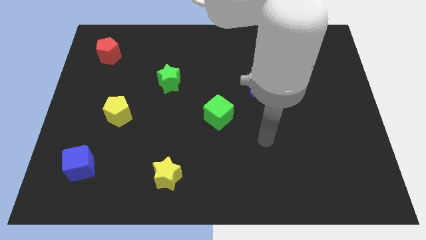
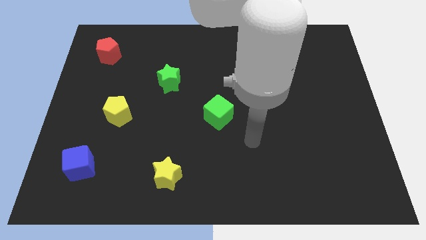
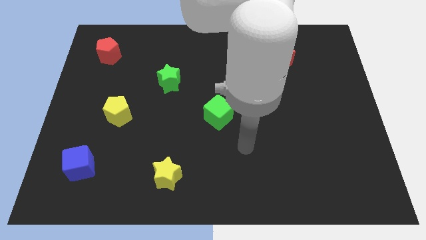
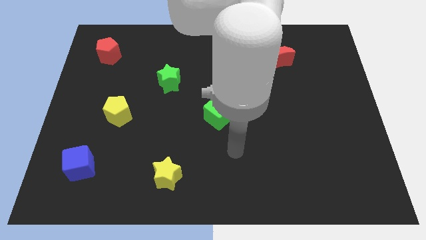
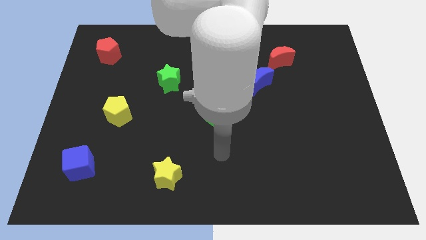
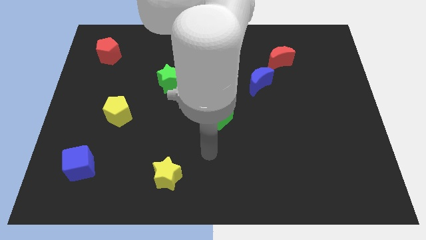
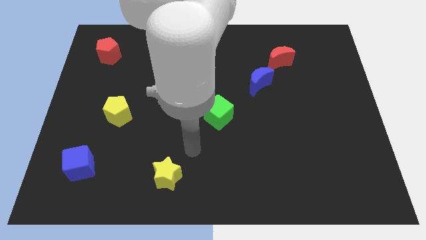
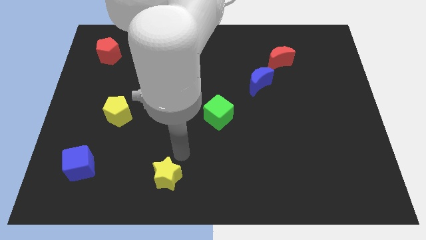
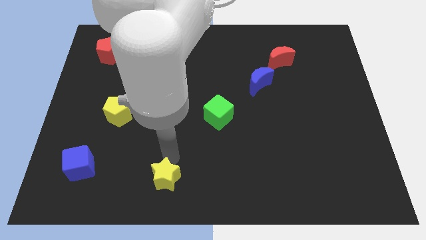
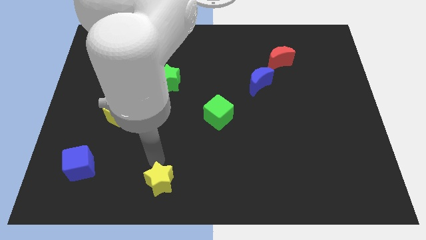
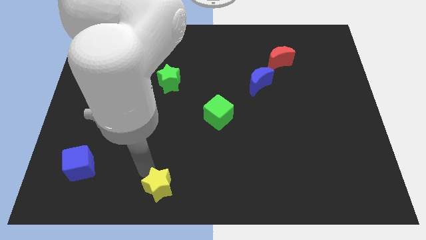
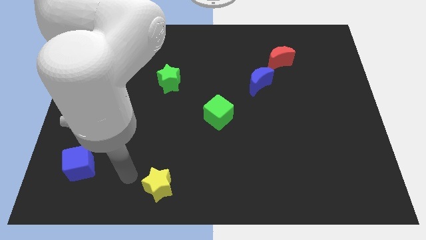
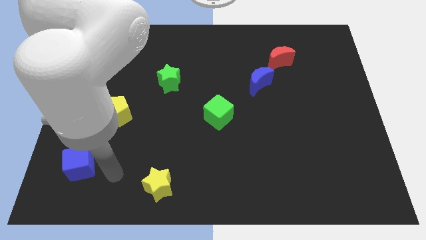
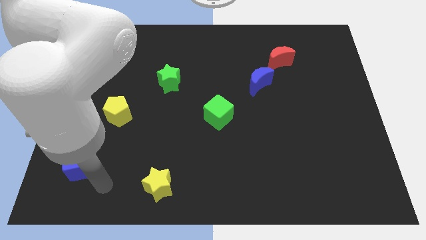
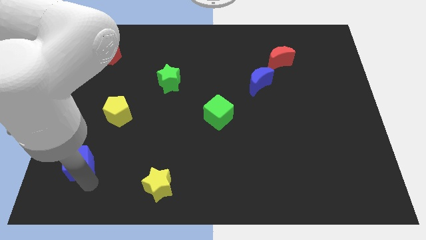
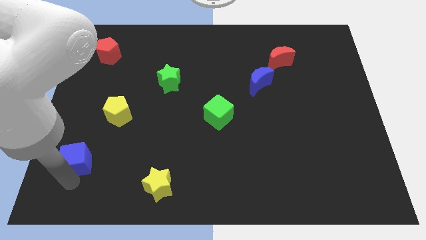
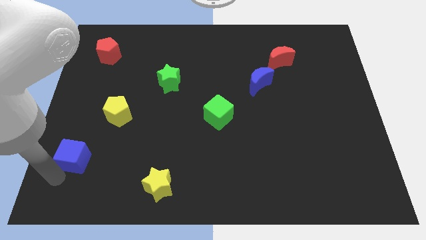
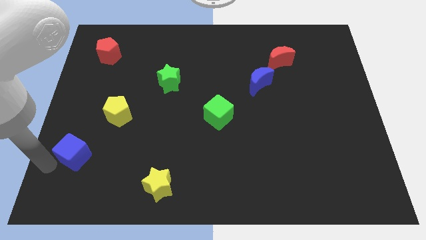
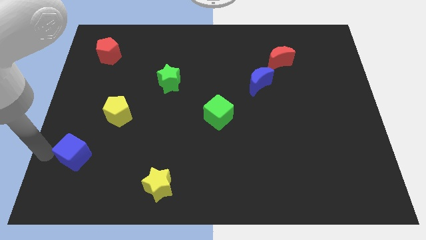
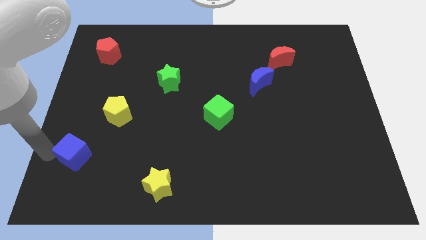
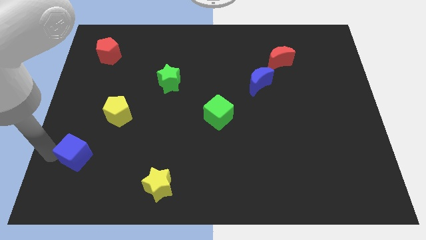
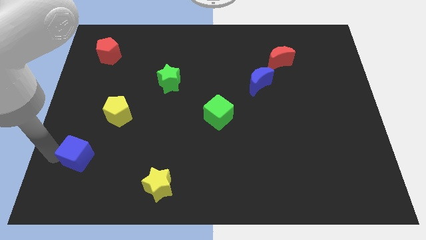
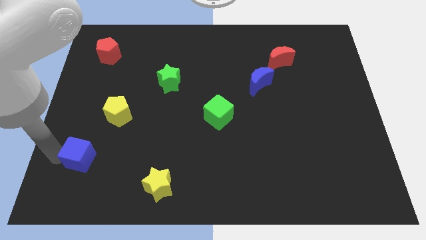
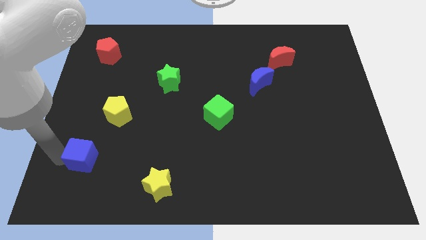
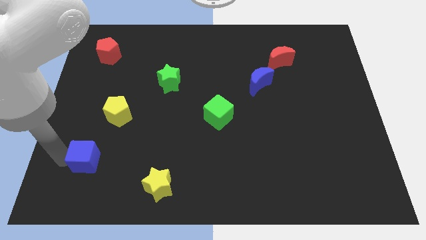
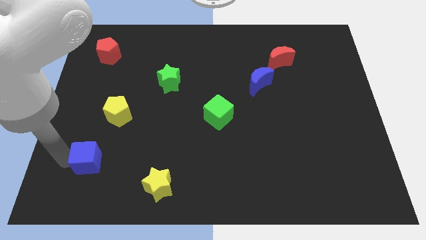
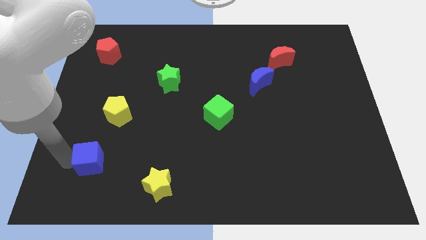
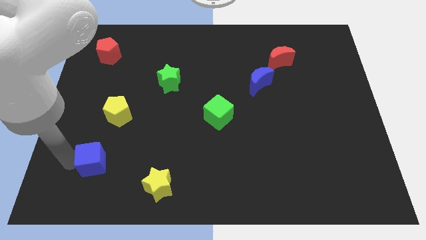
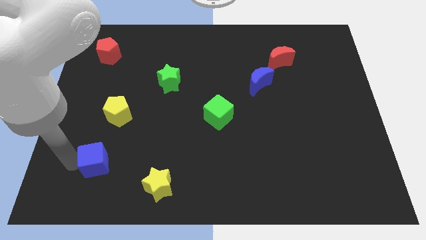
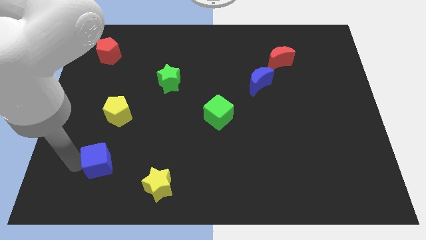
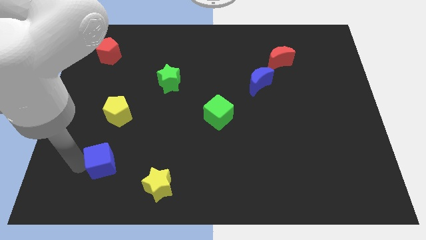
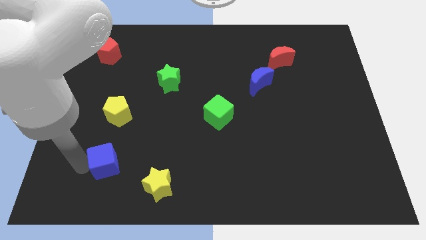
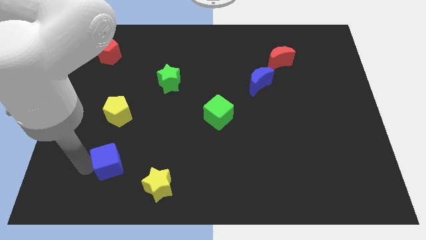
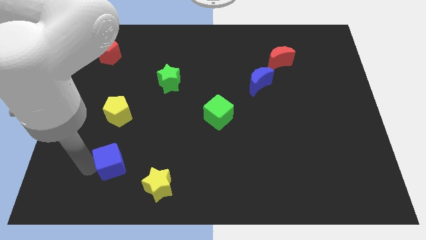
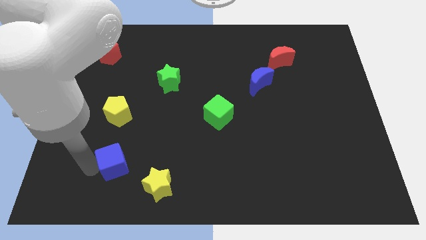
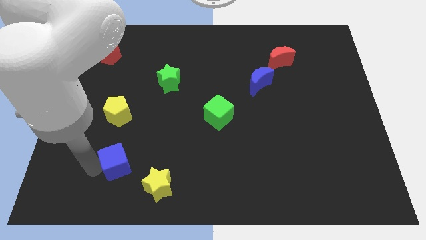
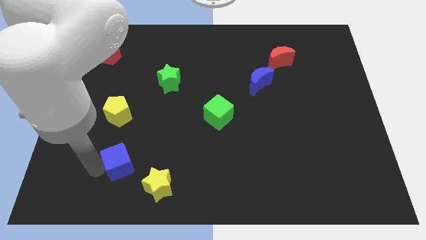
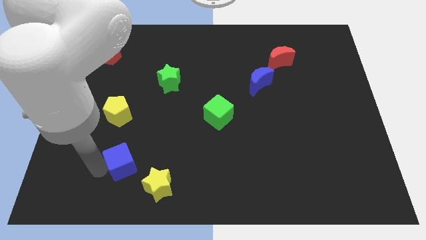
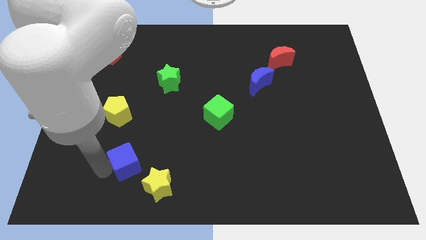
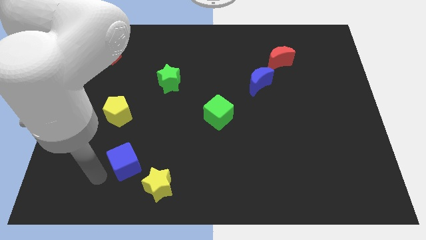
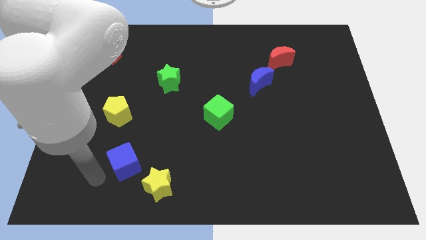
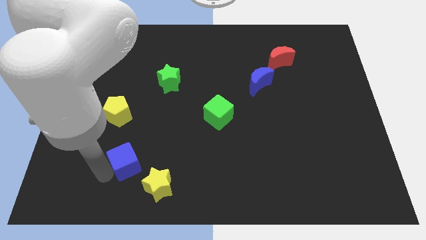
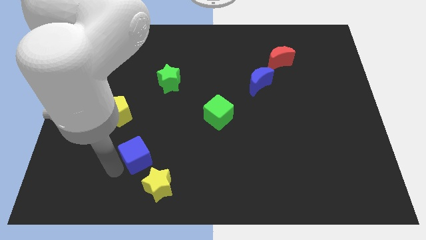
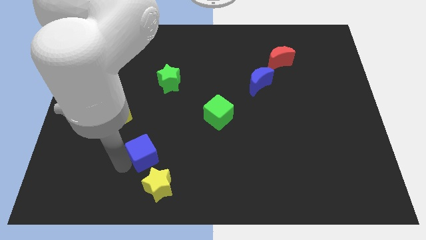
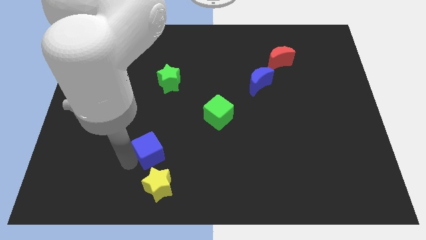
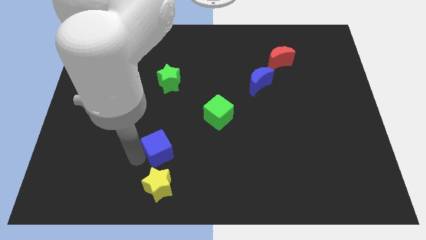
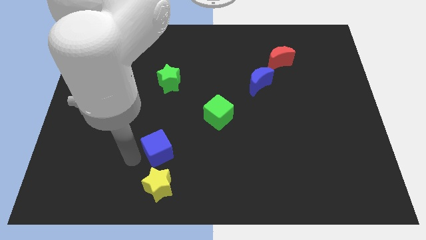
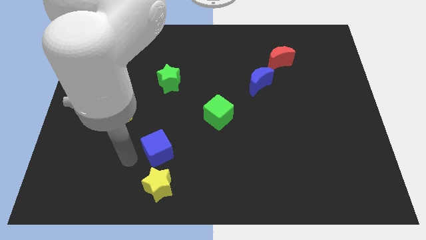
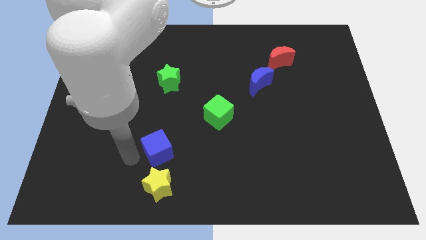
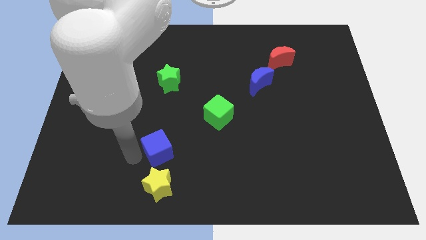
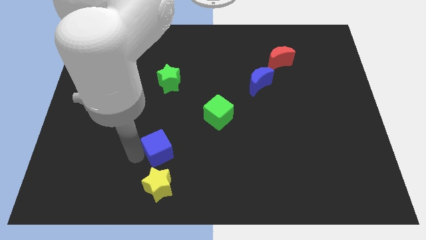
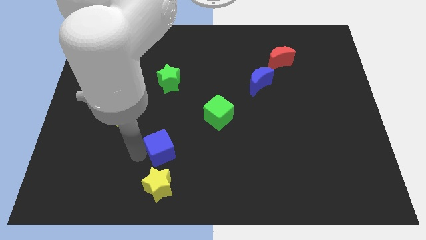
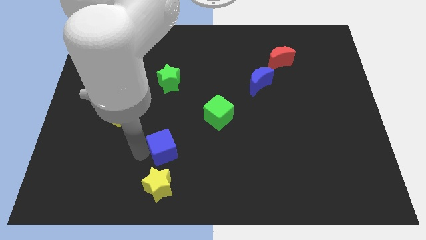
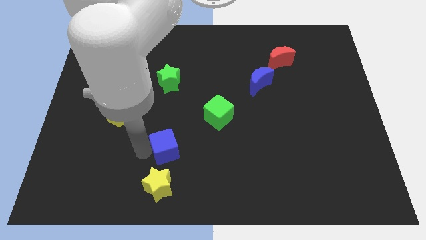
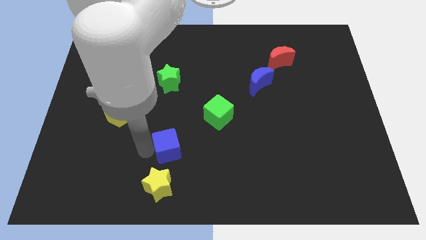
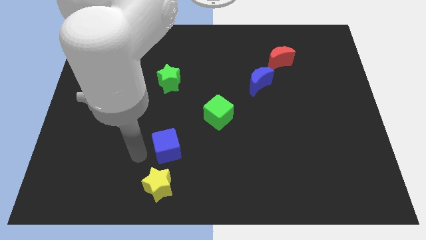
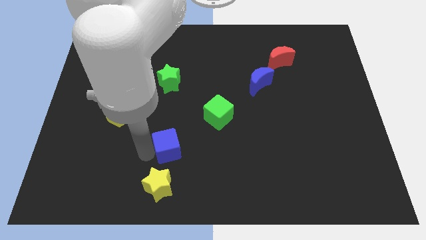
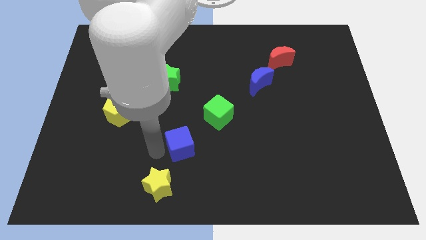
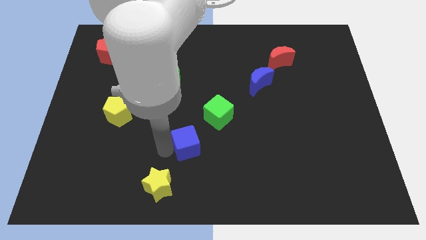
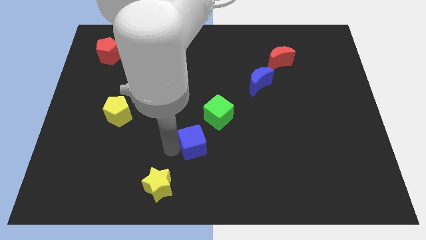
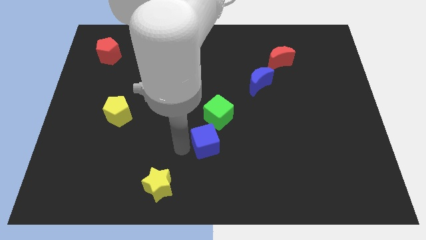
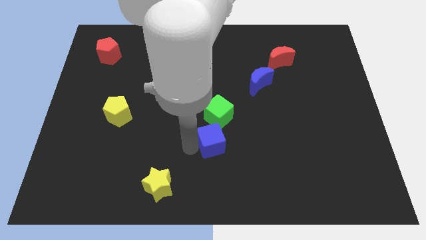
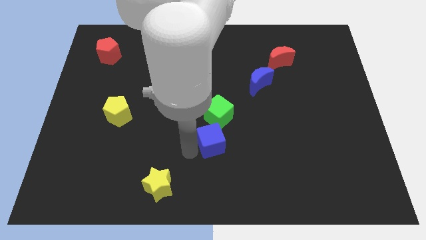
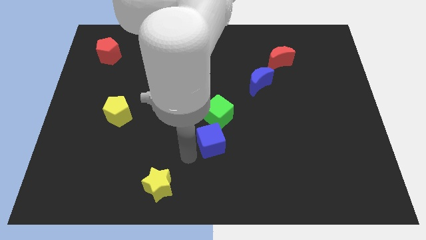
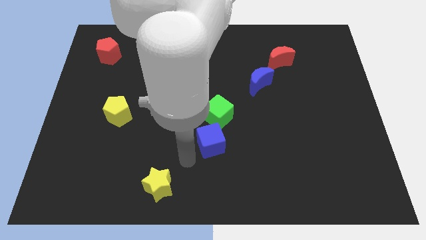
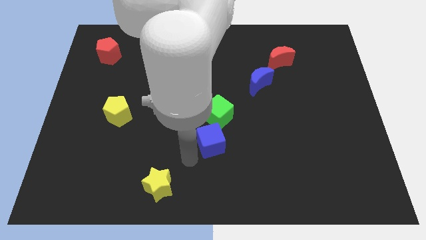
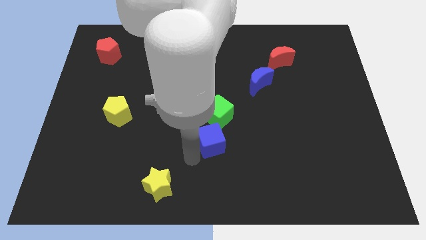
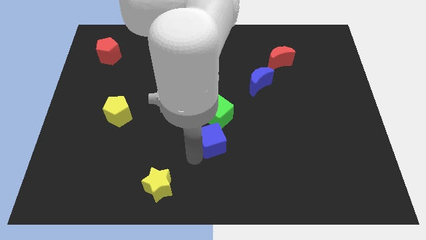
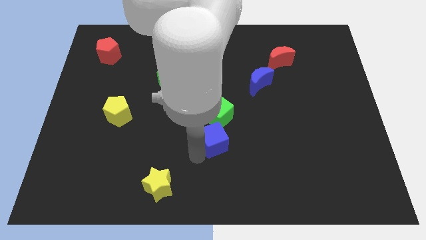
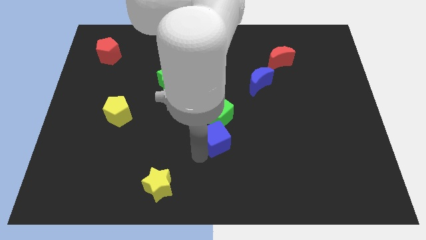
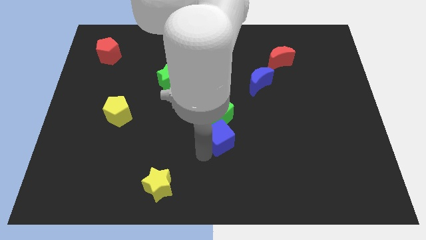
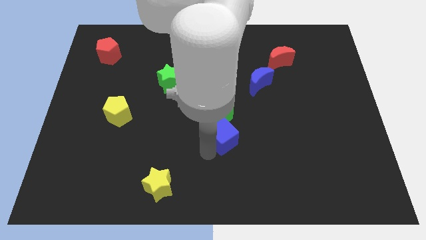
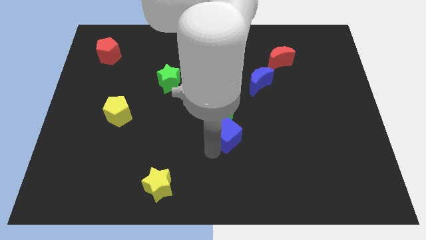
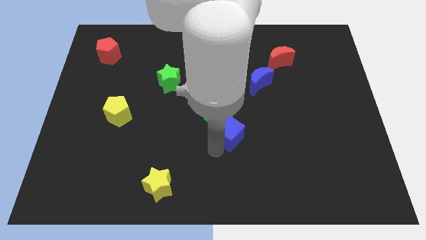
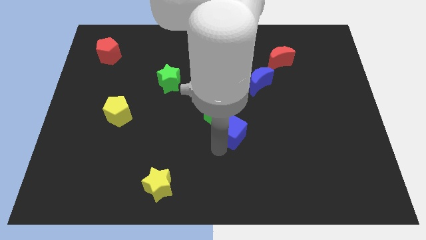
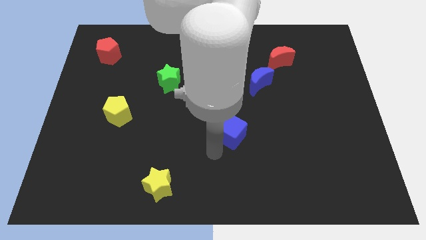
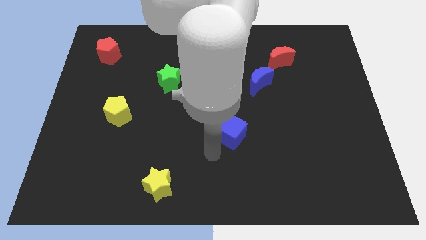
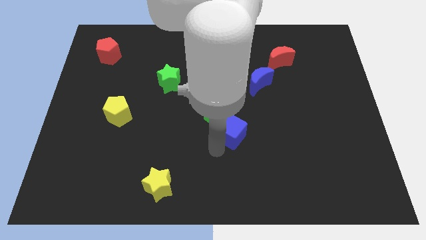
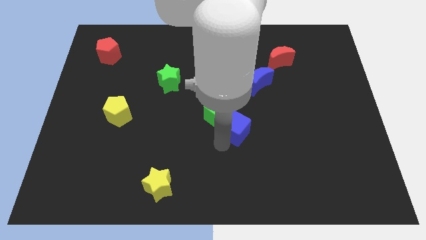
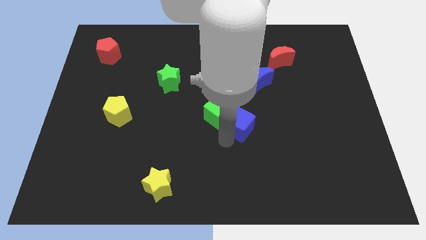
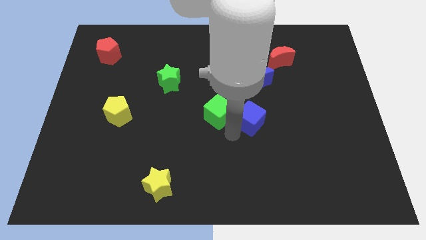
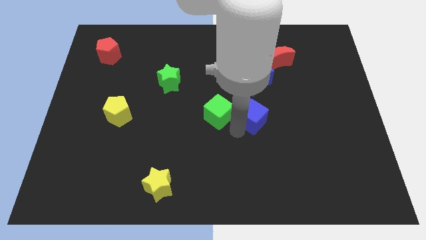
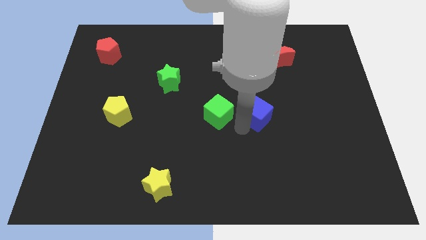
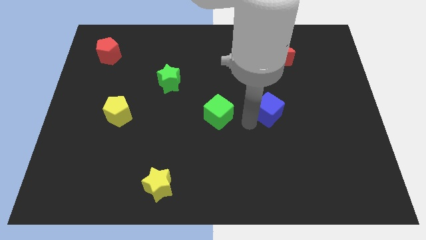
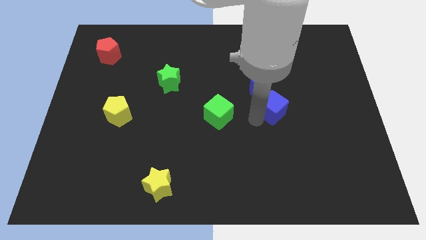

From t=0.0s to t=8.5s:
push the blue cube to the bottom right of the blue moon
